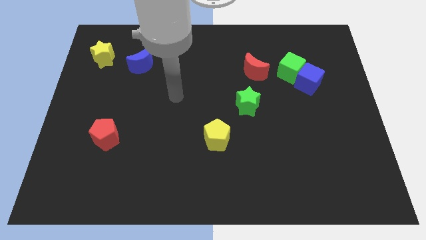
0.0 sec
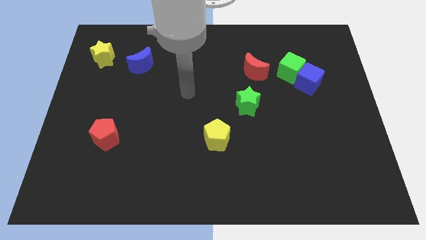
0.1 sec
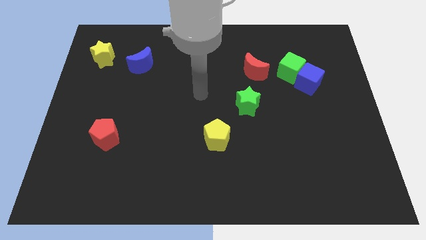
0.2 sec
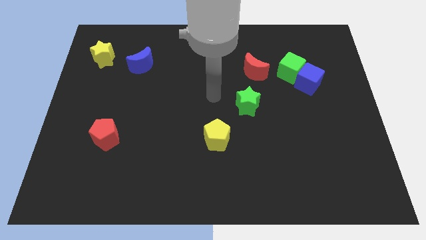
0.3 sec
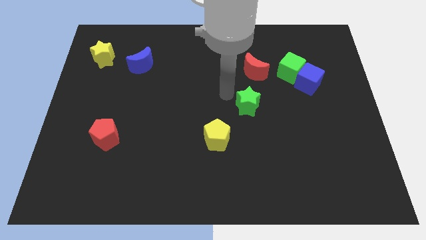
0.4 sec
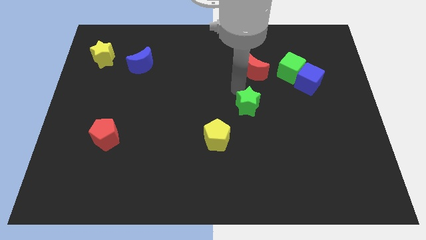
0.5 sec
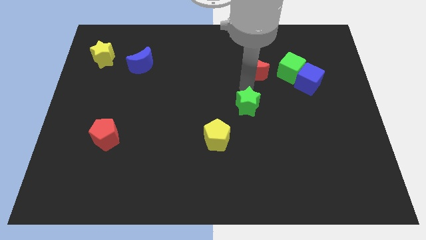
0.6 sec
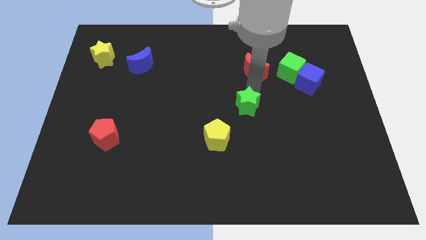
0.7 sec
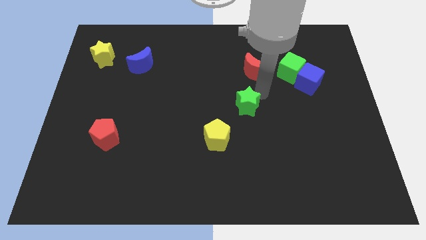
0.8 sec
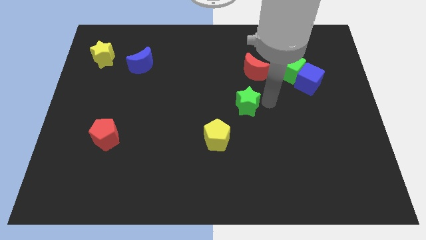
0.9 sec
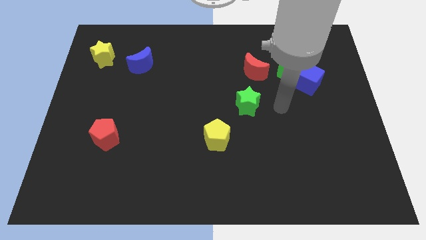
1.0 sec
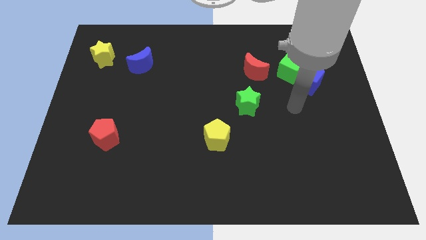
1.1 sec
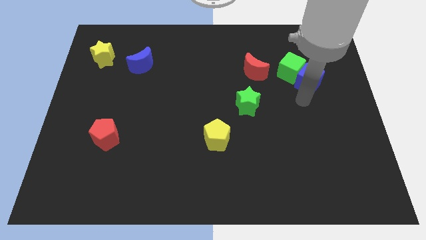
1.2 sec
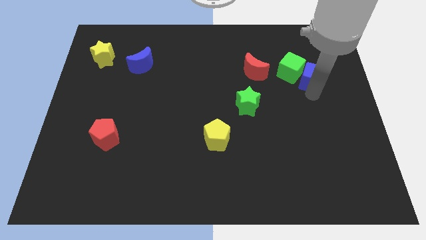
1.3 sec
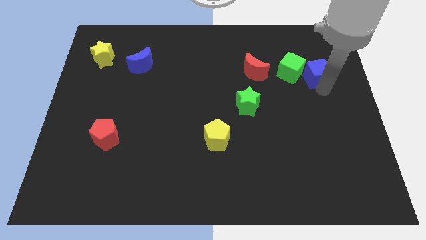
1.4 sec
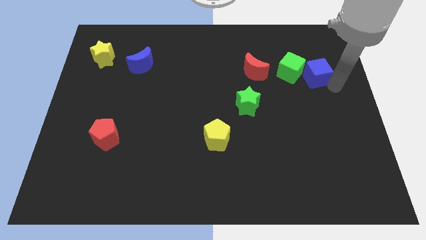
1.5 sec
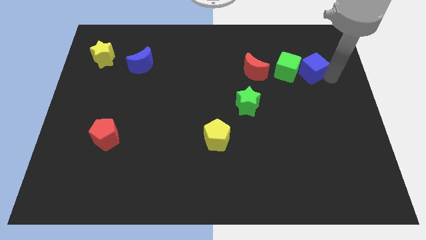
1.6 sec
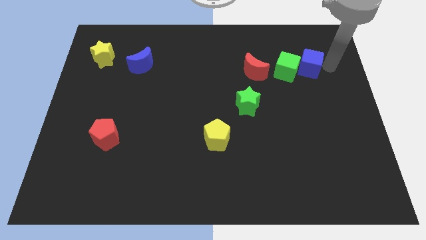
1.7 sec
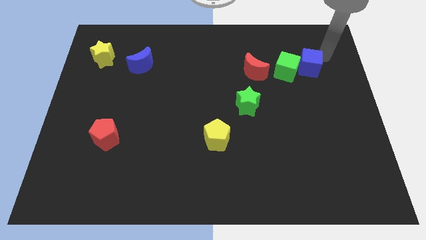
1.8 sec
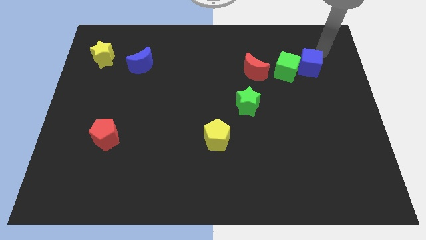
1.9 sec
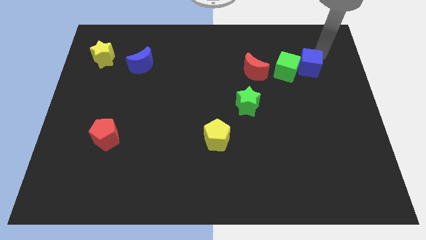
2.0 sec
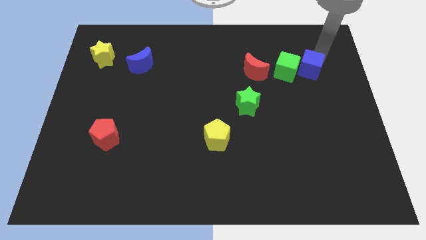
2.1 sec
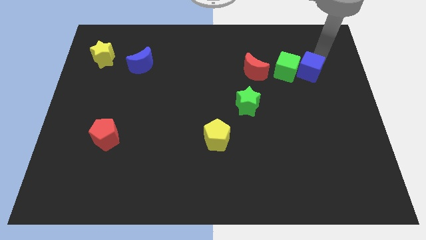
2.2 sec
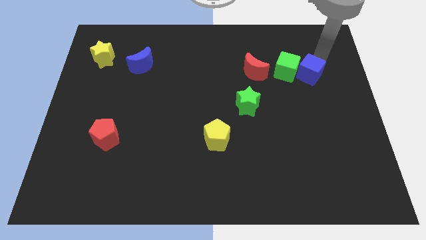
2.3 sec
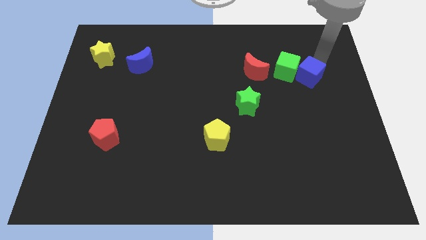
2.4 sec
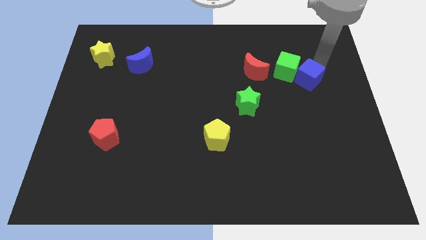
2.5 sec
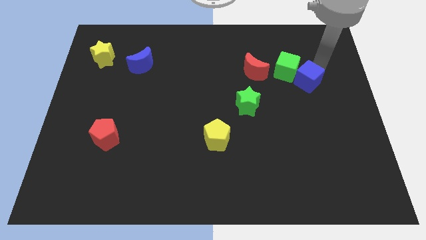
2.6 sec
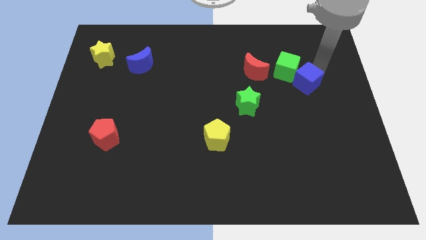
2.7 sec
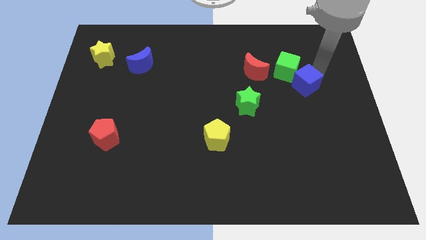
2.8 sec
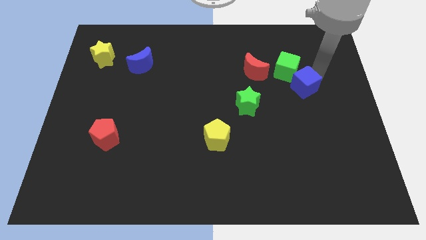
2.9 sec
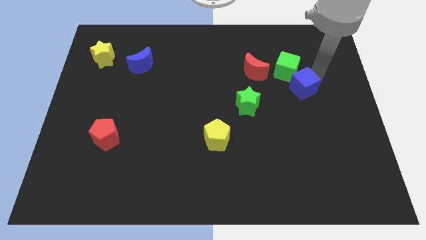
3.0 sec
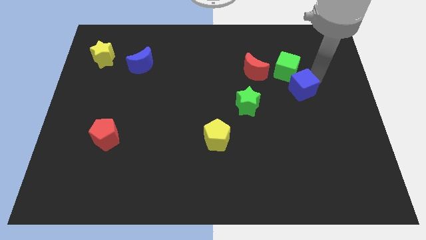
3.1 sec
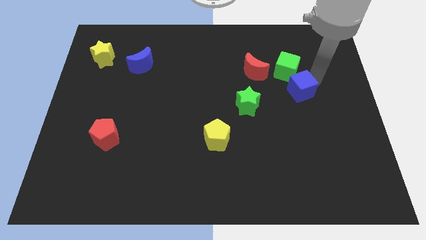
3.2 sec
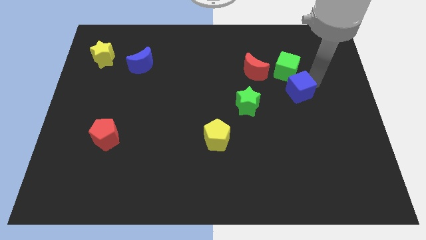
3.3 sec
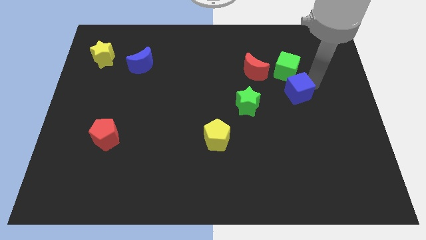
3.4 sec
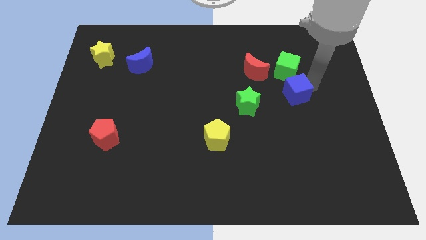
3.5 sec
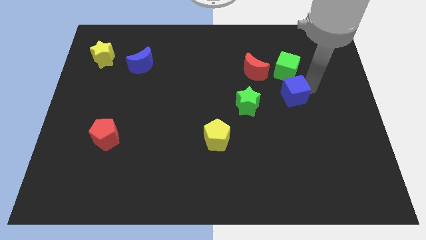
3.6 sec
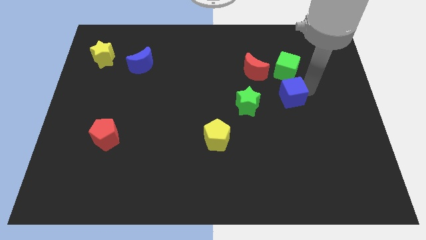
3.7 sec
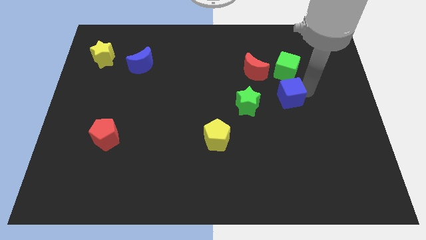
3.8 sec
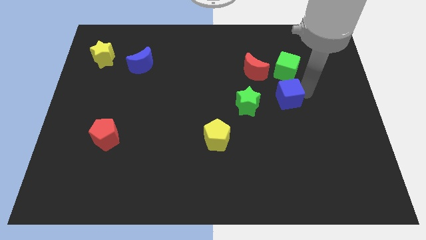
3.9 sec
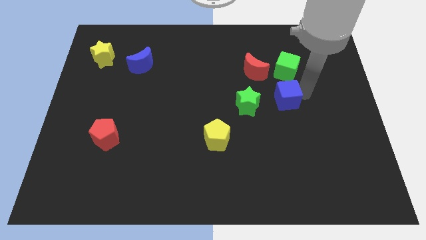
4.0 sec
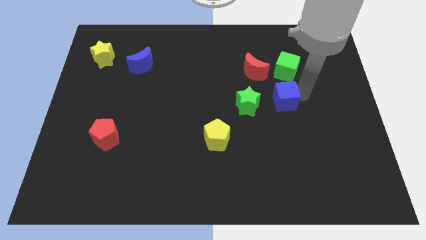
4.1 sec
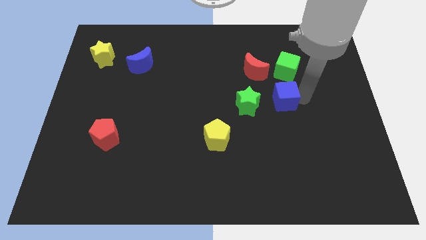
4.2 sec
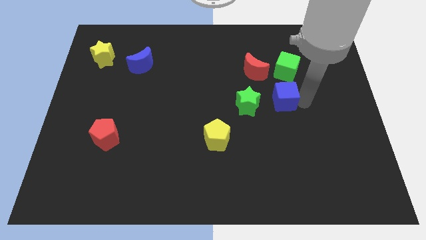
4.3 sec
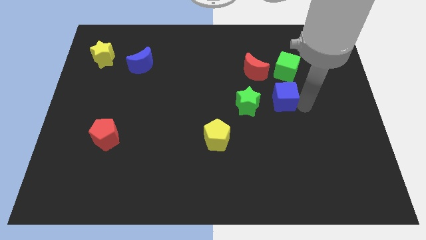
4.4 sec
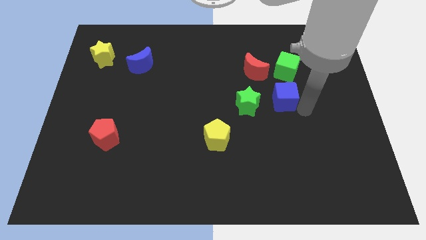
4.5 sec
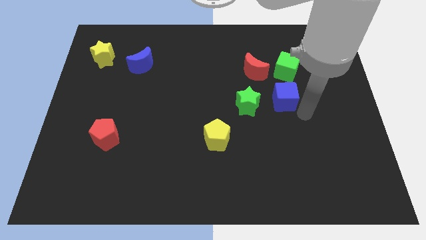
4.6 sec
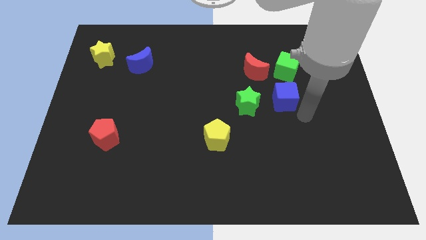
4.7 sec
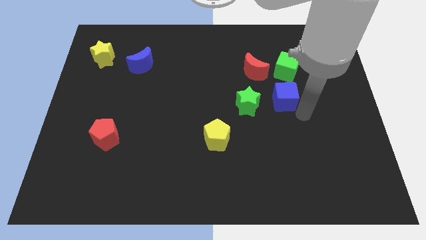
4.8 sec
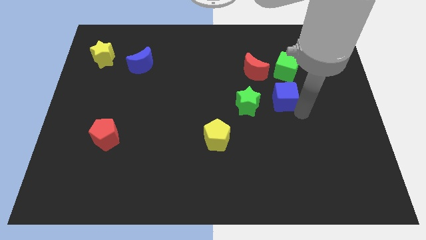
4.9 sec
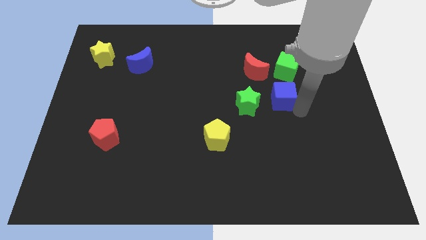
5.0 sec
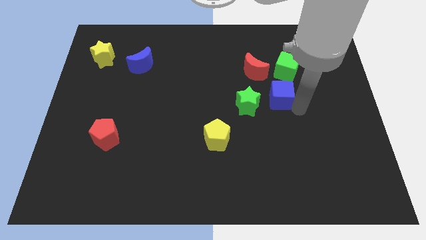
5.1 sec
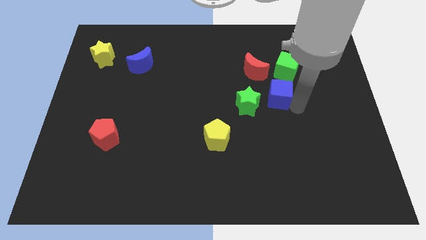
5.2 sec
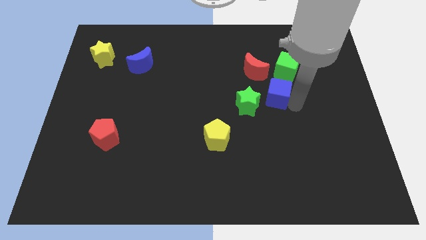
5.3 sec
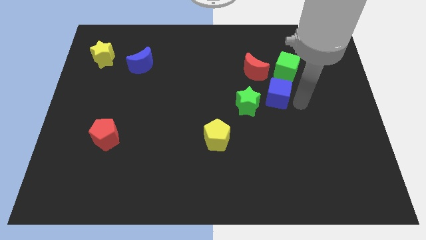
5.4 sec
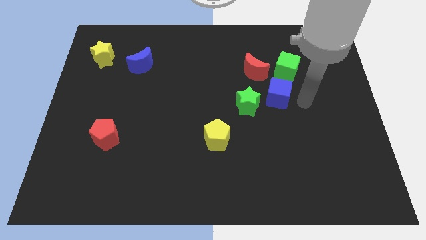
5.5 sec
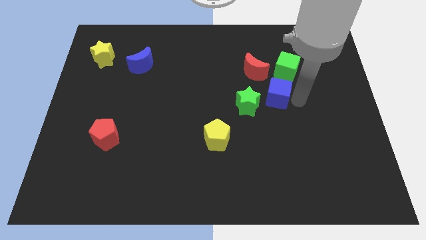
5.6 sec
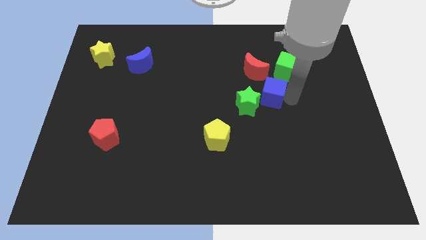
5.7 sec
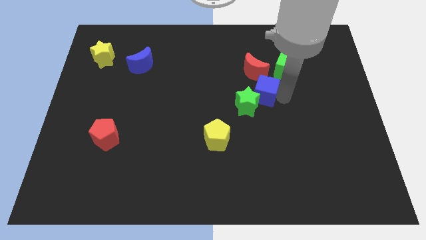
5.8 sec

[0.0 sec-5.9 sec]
slide the blue cube to the middle

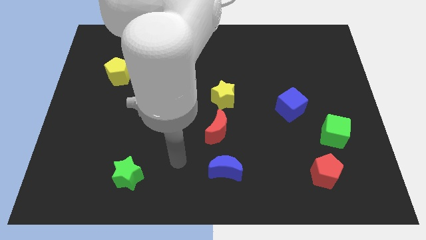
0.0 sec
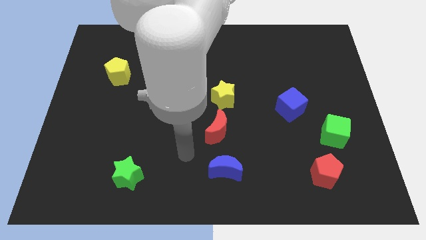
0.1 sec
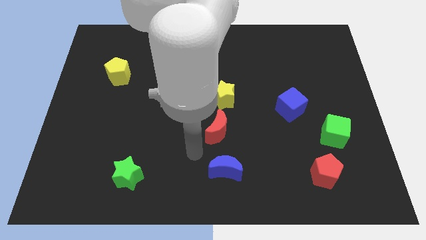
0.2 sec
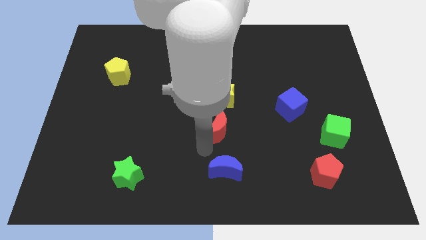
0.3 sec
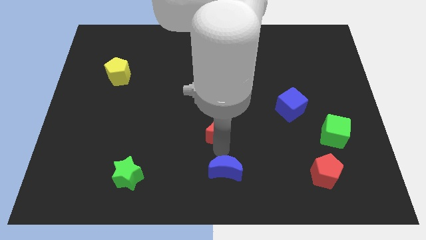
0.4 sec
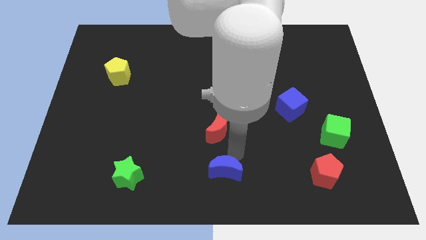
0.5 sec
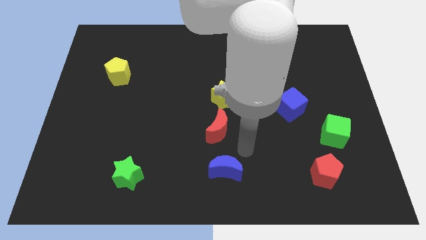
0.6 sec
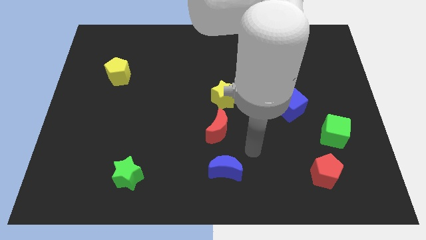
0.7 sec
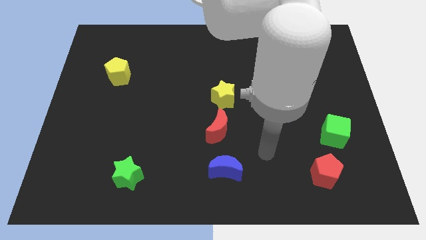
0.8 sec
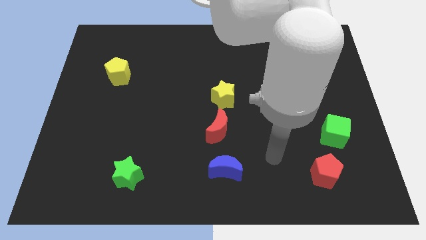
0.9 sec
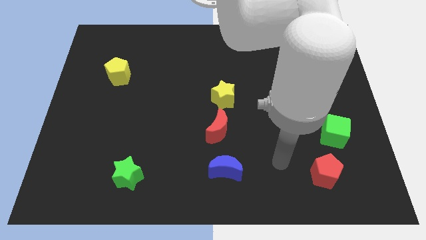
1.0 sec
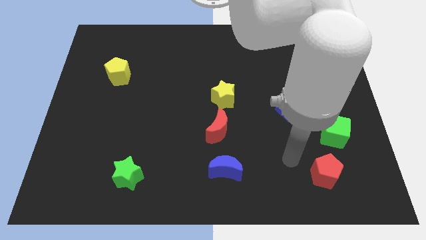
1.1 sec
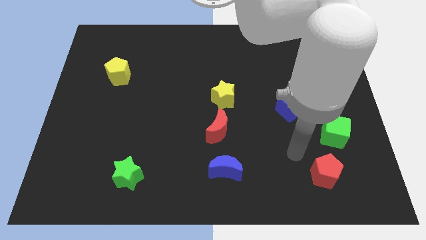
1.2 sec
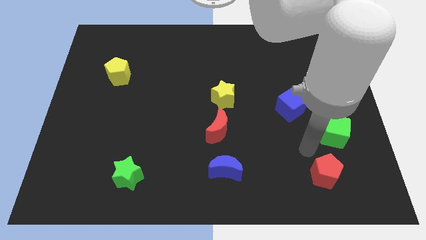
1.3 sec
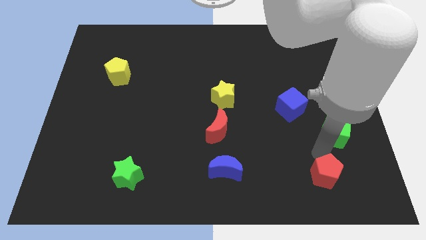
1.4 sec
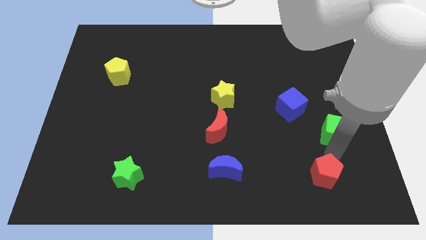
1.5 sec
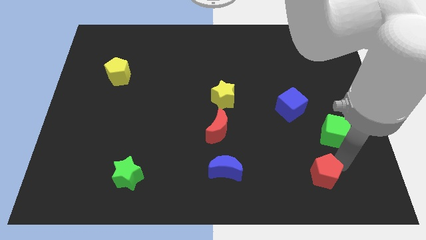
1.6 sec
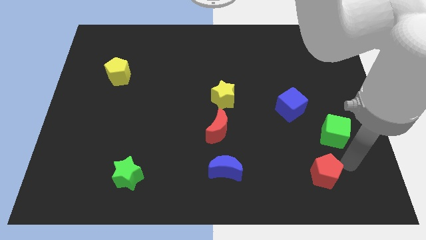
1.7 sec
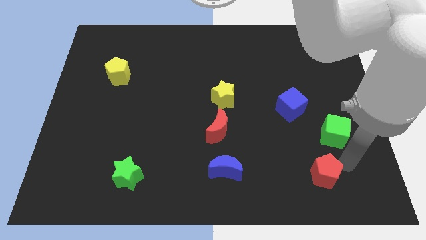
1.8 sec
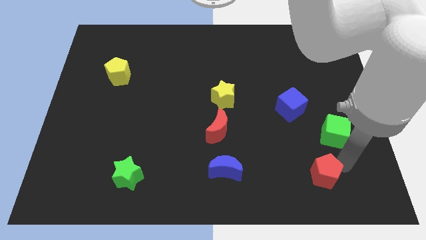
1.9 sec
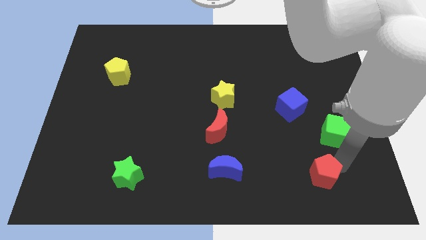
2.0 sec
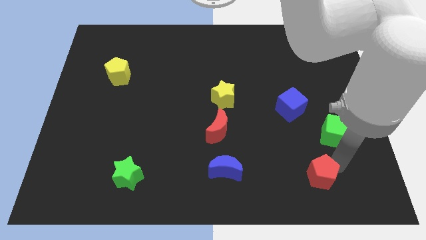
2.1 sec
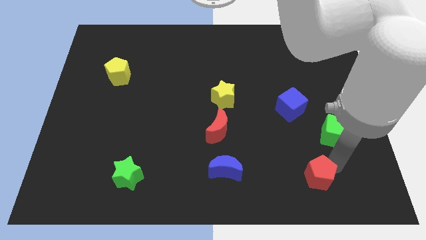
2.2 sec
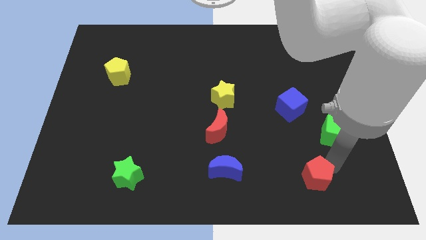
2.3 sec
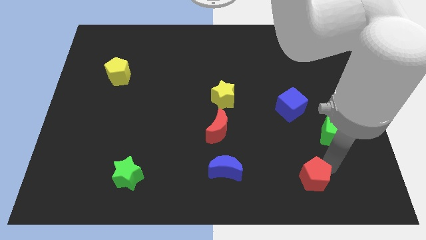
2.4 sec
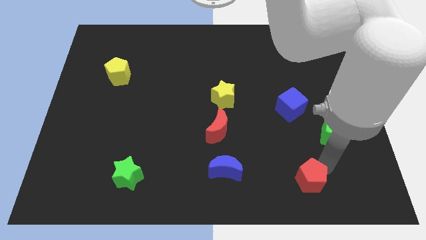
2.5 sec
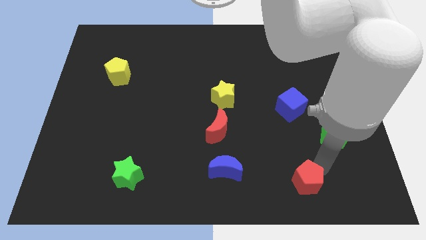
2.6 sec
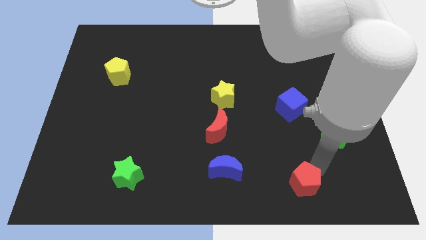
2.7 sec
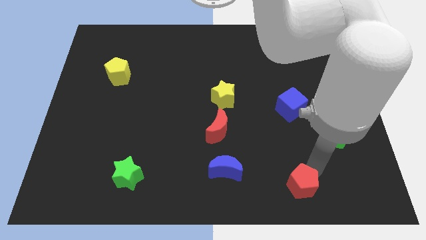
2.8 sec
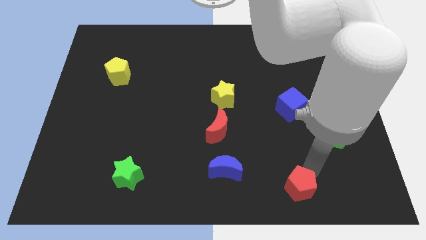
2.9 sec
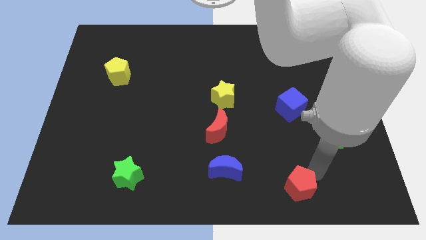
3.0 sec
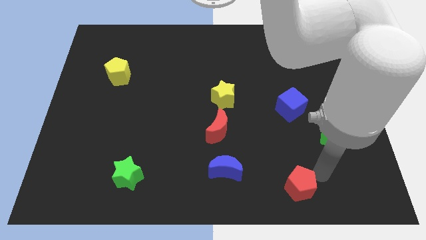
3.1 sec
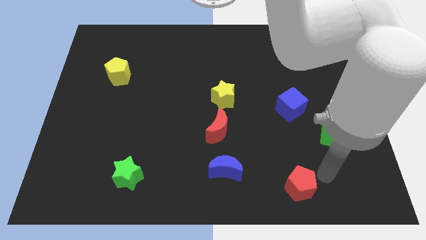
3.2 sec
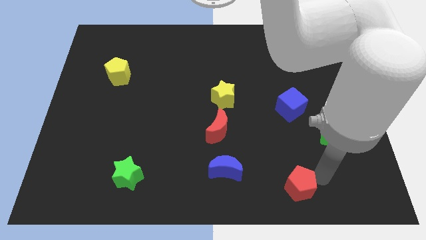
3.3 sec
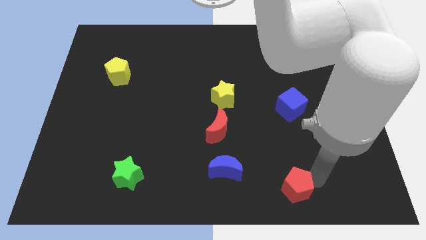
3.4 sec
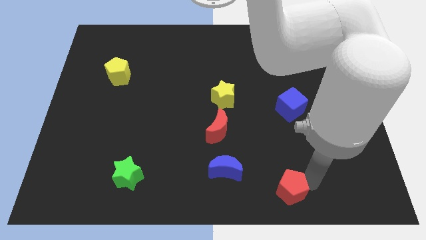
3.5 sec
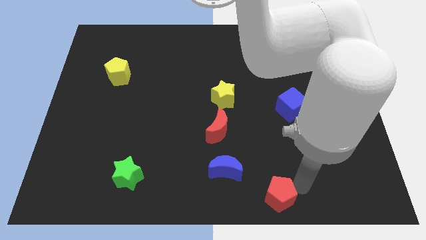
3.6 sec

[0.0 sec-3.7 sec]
push the red pentagon to the bottom side
